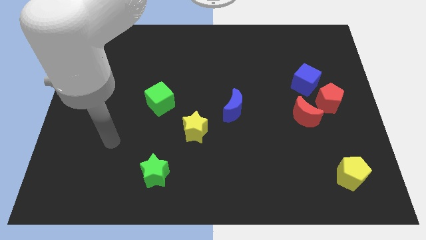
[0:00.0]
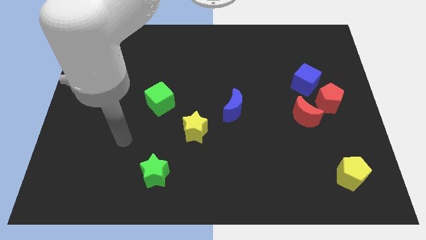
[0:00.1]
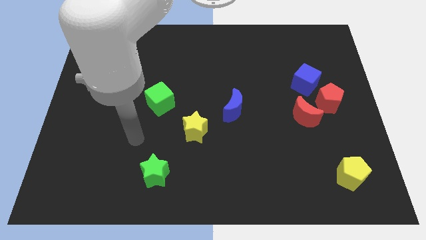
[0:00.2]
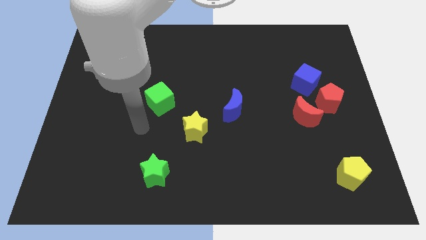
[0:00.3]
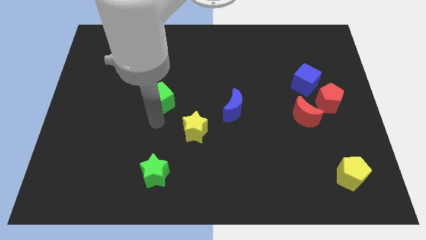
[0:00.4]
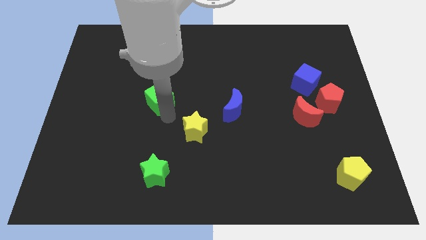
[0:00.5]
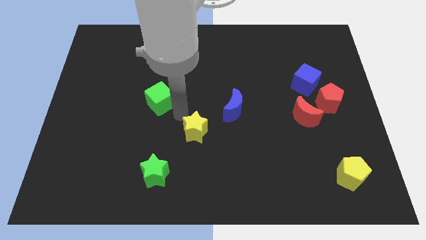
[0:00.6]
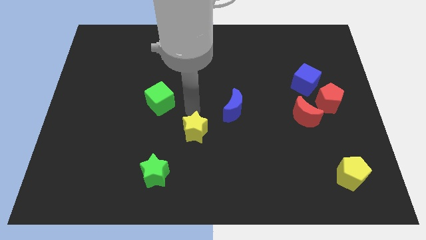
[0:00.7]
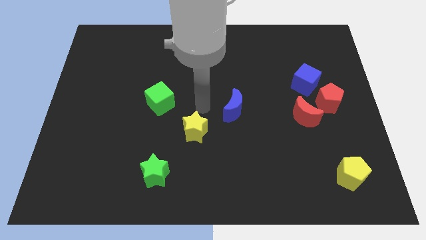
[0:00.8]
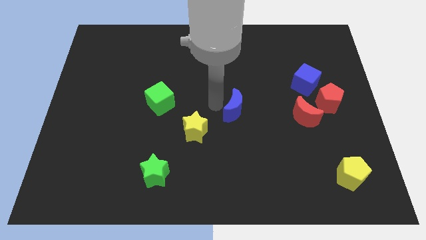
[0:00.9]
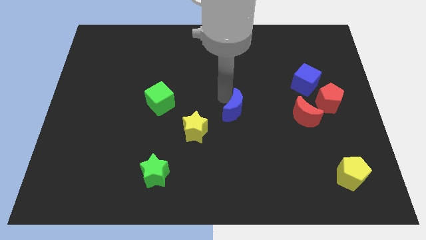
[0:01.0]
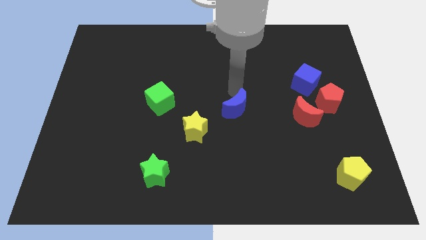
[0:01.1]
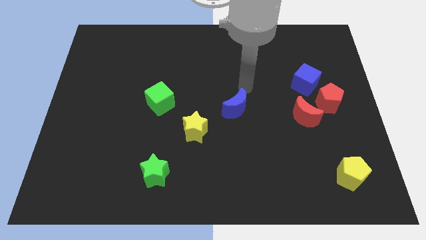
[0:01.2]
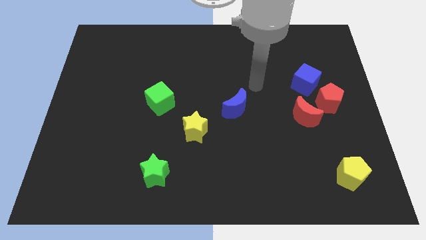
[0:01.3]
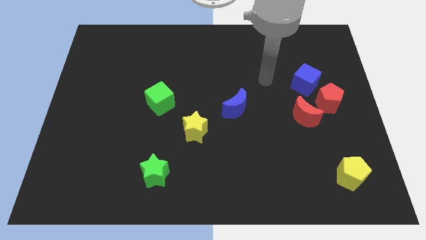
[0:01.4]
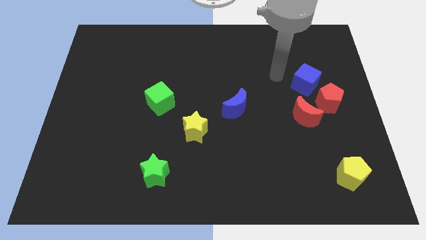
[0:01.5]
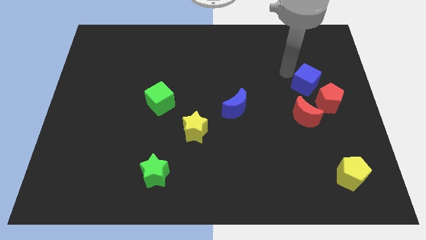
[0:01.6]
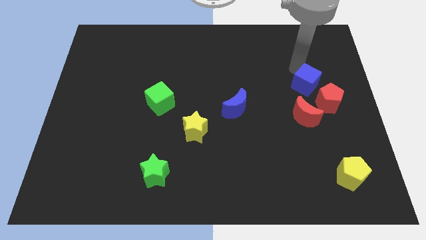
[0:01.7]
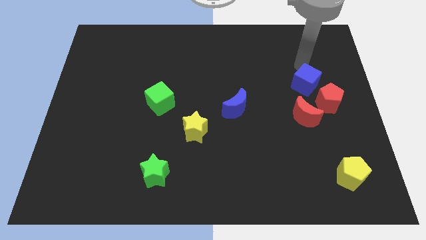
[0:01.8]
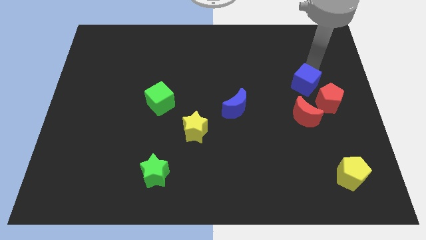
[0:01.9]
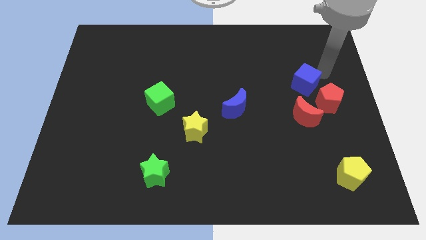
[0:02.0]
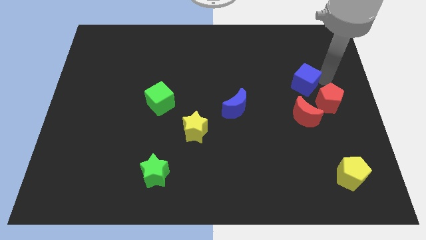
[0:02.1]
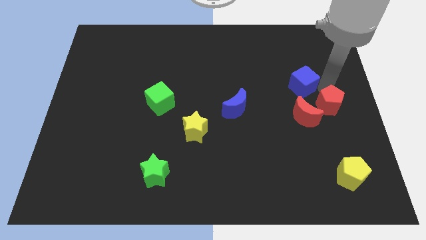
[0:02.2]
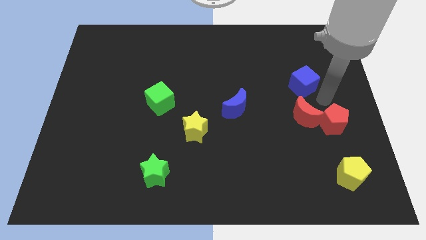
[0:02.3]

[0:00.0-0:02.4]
move the blue cube away from the red pentagon

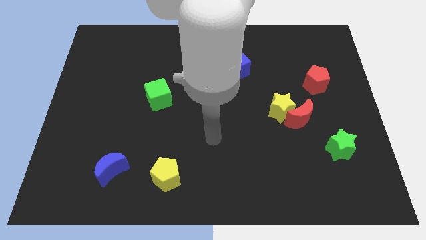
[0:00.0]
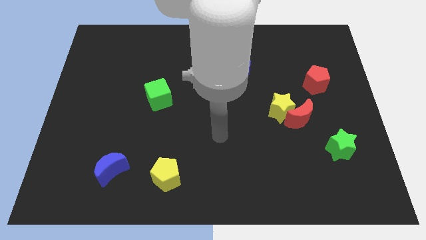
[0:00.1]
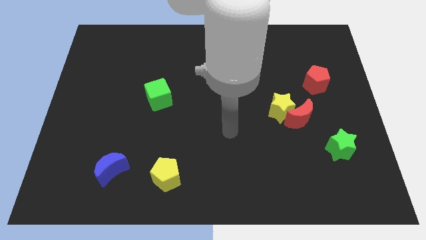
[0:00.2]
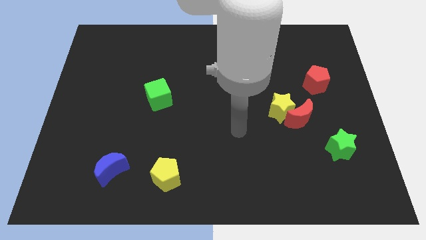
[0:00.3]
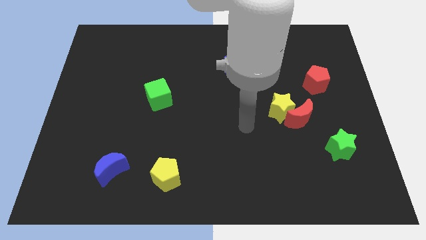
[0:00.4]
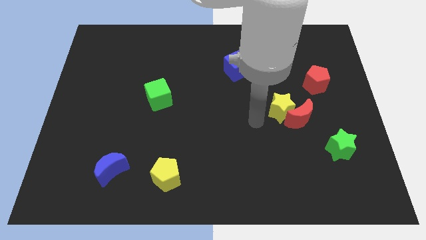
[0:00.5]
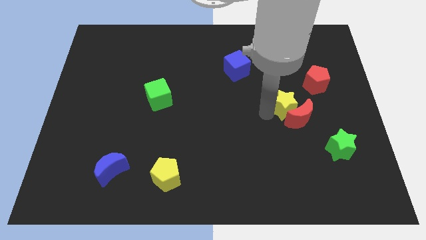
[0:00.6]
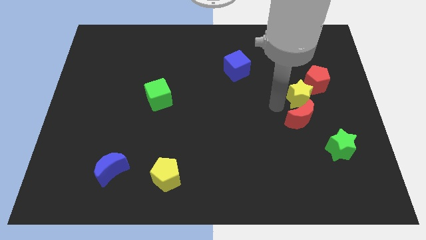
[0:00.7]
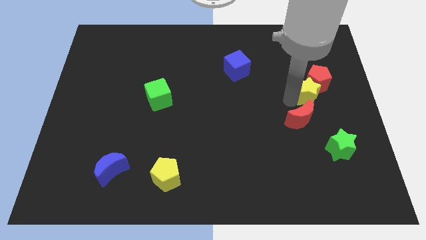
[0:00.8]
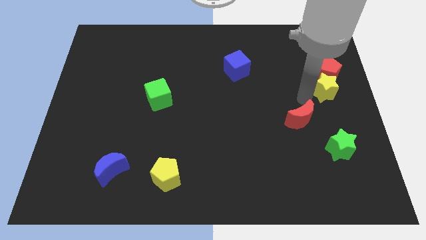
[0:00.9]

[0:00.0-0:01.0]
separate the red moon from the yellow star

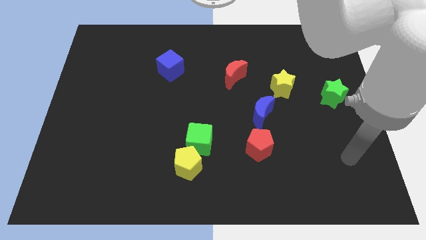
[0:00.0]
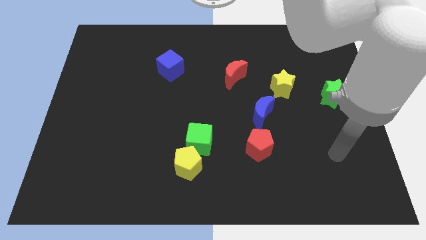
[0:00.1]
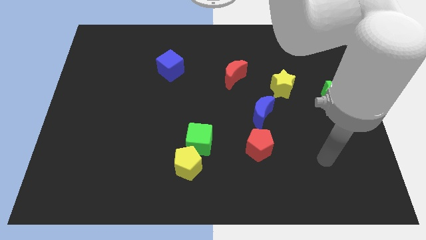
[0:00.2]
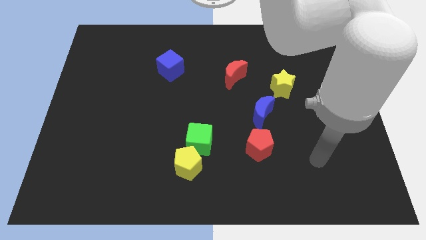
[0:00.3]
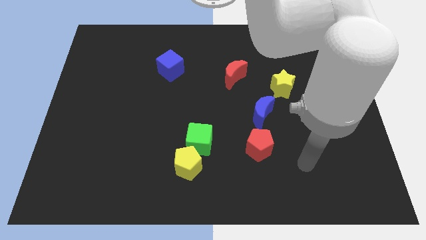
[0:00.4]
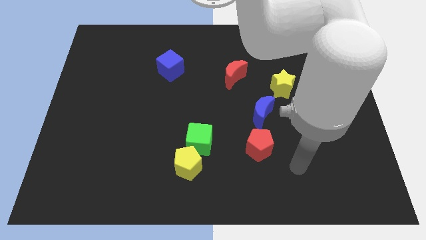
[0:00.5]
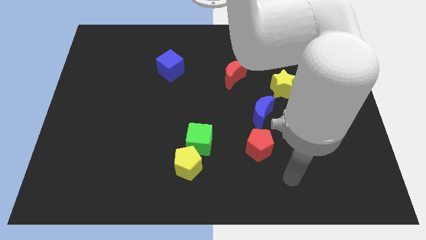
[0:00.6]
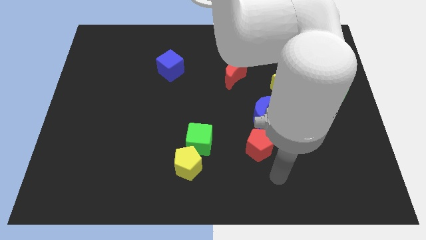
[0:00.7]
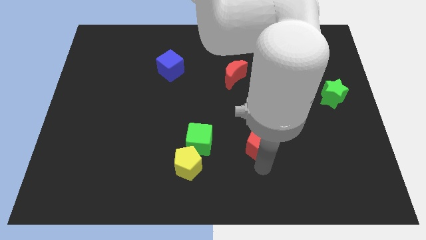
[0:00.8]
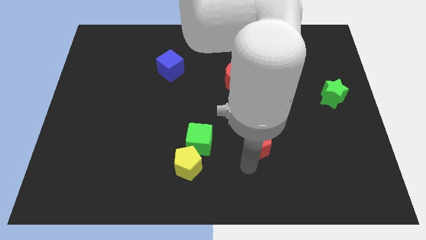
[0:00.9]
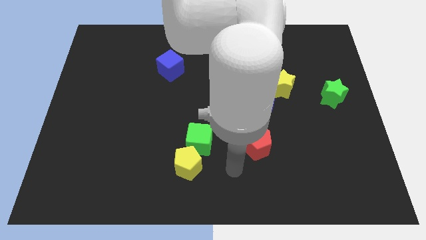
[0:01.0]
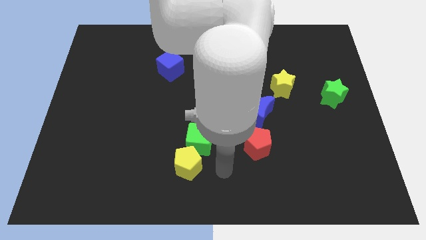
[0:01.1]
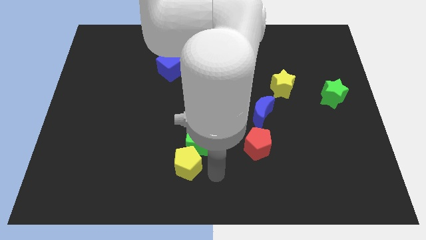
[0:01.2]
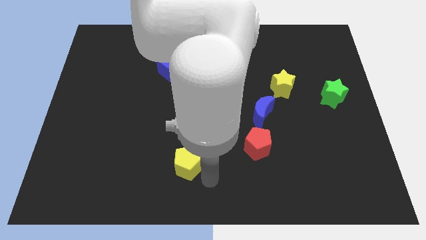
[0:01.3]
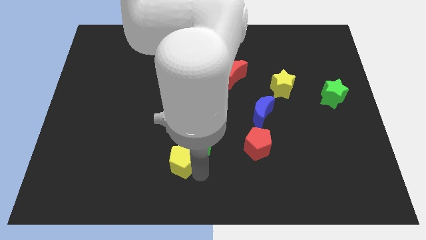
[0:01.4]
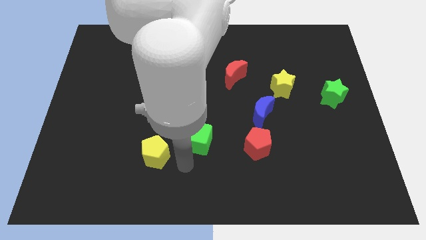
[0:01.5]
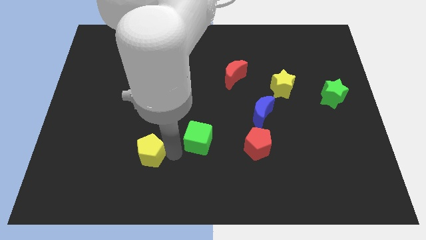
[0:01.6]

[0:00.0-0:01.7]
separate the green cube from the yellow pentagon

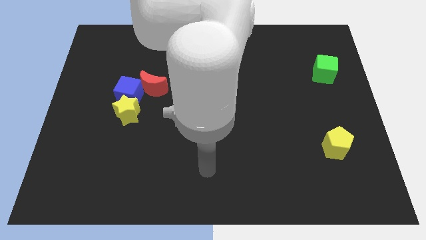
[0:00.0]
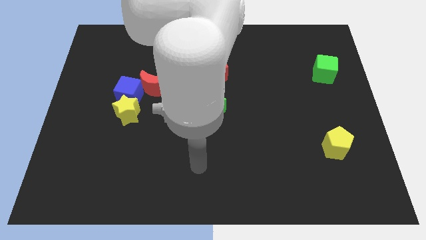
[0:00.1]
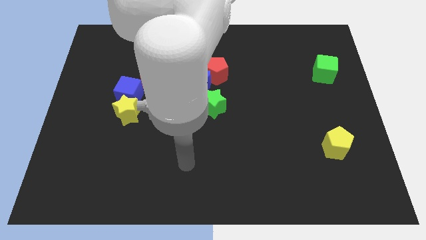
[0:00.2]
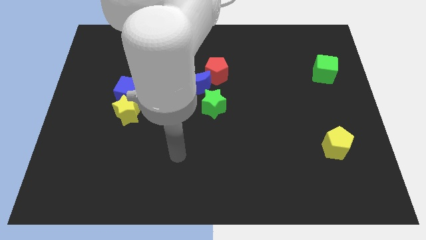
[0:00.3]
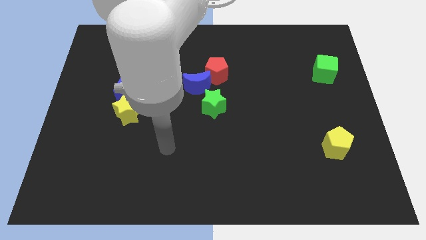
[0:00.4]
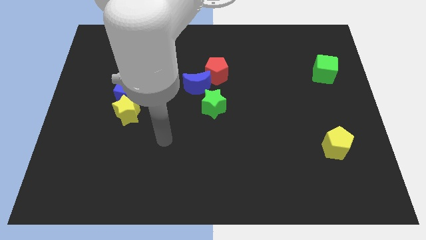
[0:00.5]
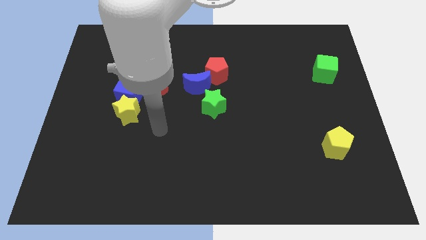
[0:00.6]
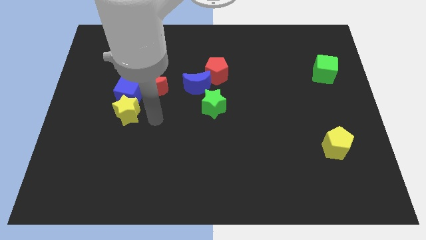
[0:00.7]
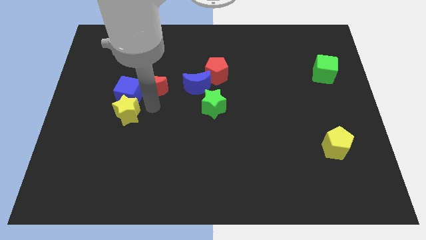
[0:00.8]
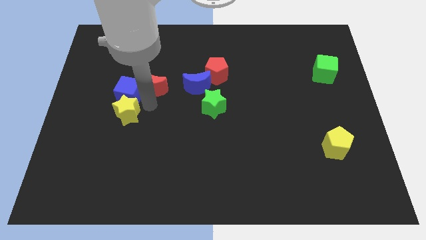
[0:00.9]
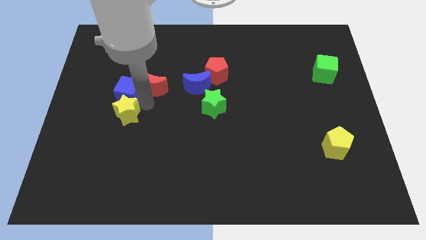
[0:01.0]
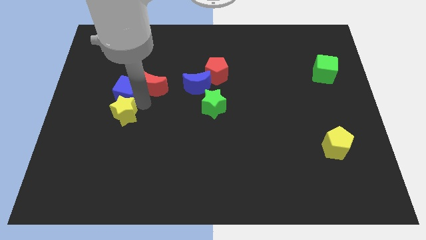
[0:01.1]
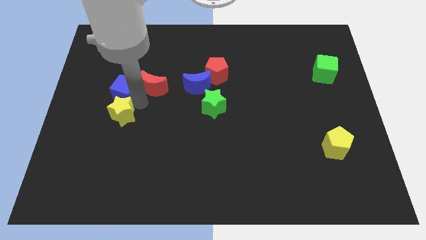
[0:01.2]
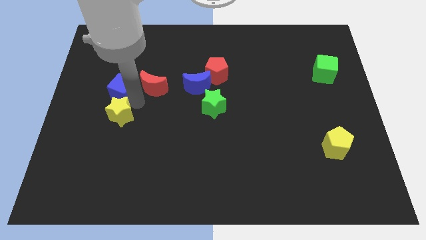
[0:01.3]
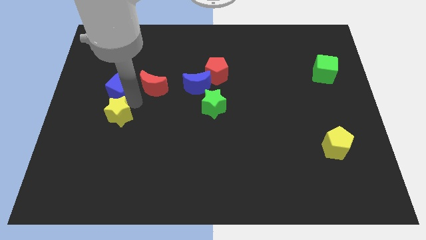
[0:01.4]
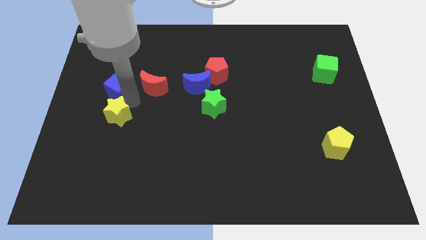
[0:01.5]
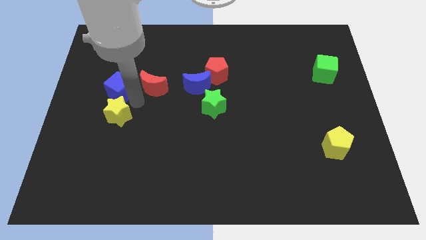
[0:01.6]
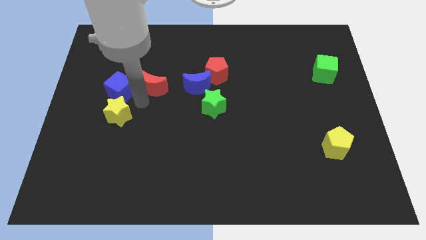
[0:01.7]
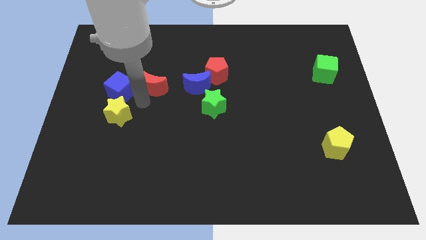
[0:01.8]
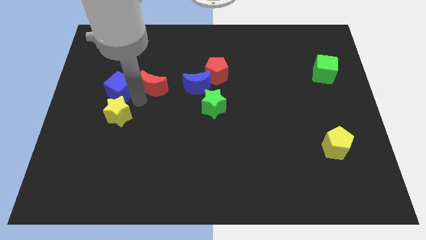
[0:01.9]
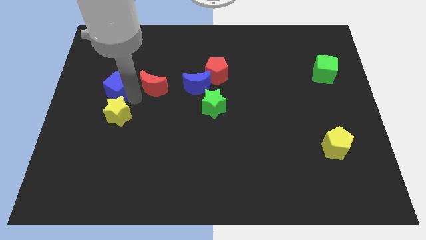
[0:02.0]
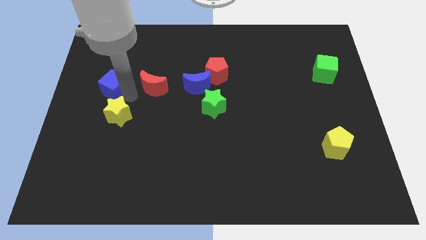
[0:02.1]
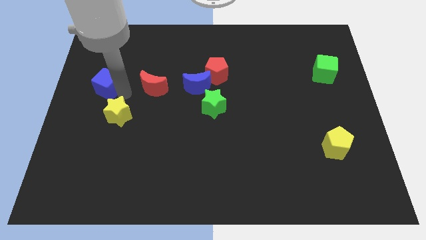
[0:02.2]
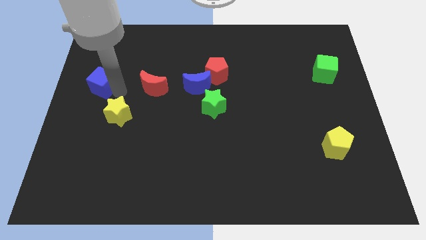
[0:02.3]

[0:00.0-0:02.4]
separate the blue cube from the yellow star and red moon

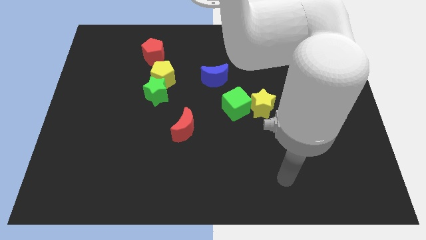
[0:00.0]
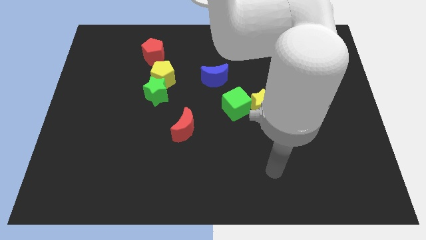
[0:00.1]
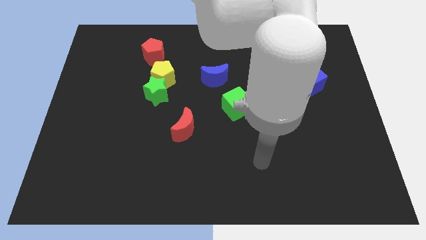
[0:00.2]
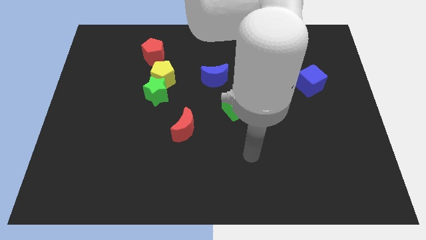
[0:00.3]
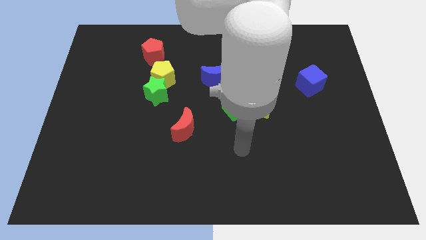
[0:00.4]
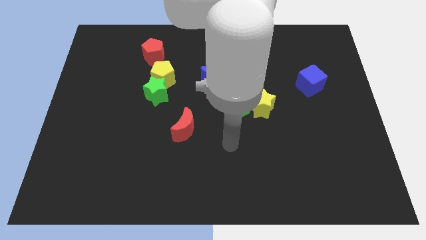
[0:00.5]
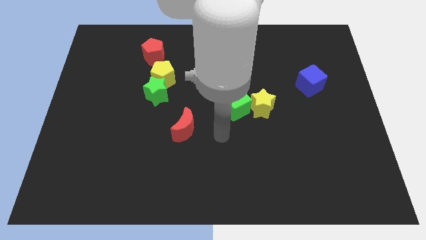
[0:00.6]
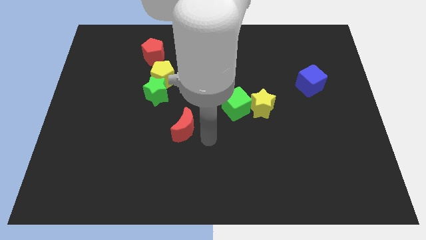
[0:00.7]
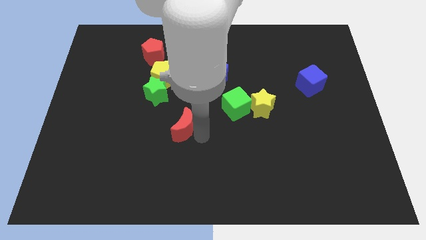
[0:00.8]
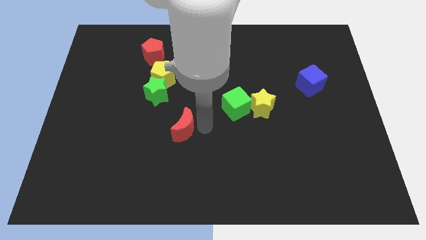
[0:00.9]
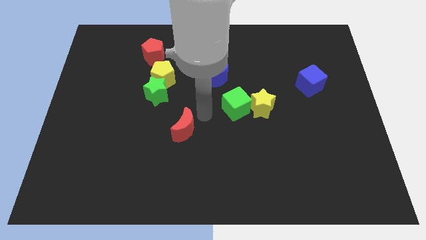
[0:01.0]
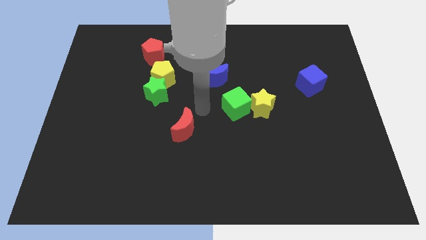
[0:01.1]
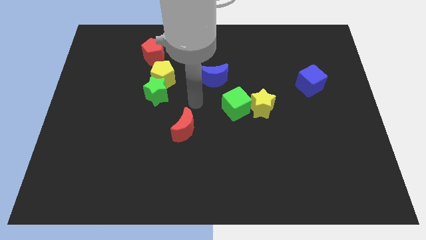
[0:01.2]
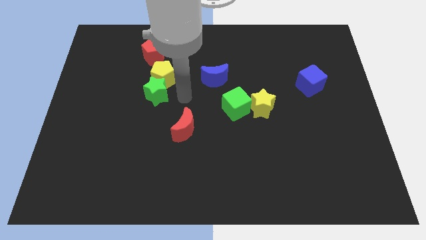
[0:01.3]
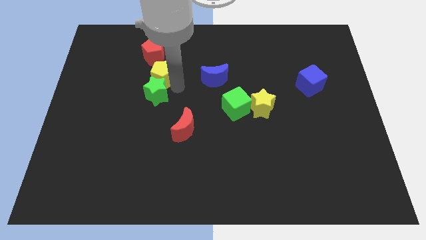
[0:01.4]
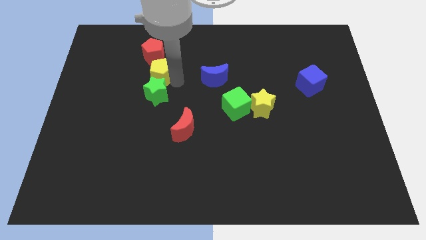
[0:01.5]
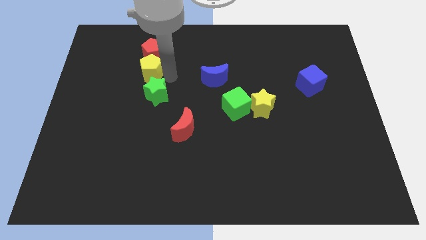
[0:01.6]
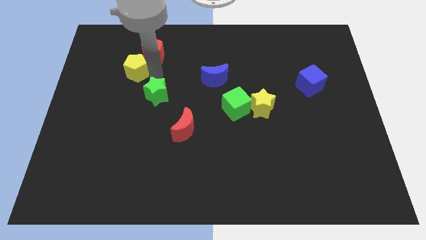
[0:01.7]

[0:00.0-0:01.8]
pull the green star apart from the yellow pentagon

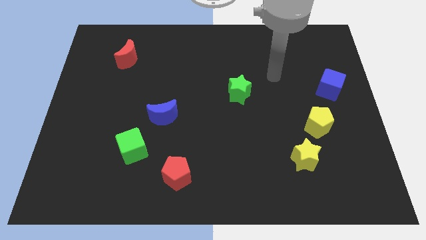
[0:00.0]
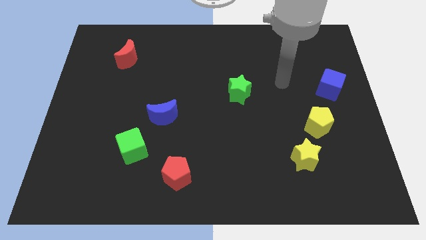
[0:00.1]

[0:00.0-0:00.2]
separate the yellow star from the yellow pentagon

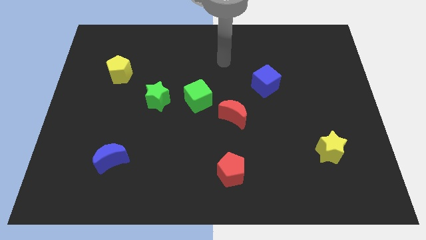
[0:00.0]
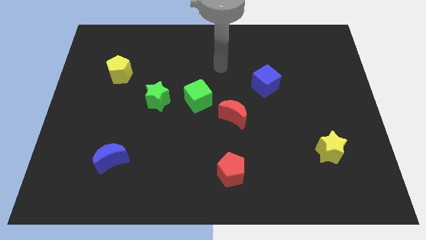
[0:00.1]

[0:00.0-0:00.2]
pull the red moon apart from the green cube
